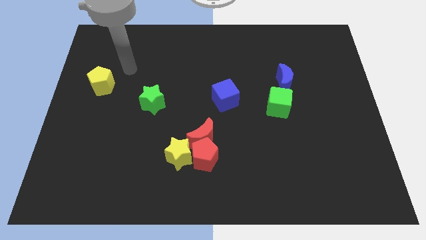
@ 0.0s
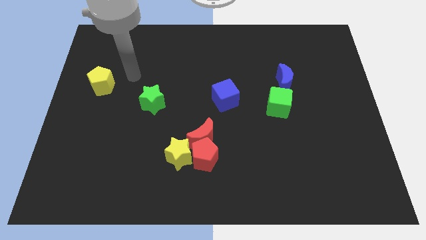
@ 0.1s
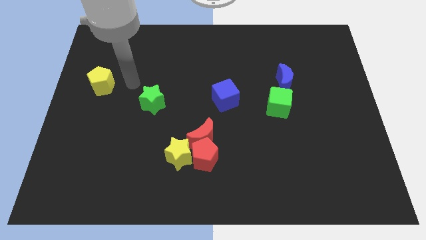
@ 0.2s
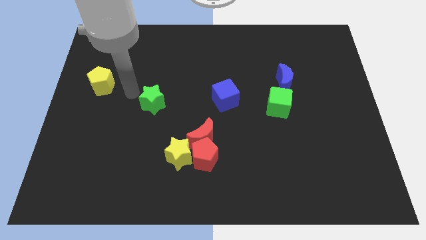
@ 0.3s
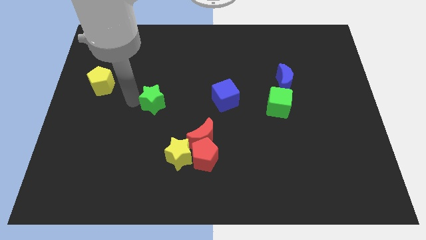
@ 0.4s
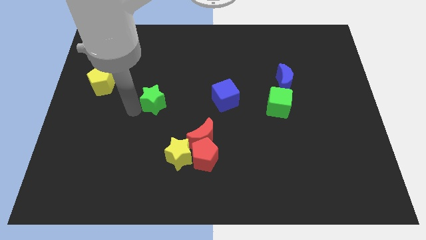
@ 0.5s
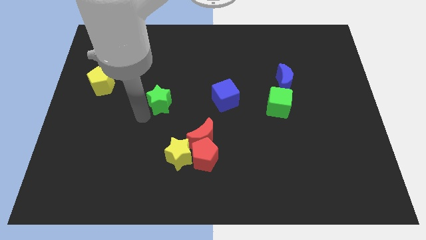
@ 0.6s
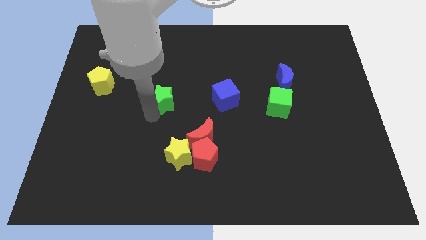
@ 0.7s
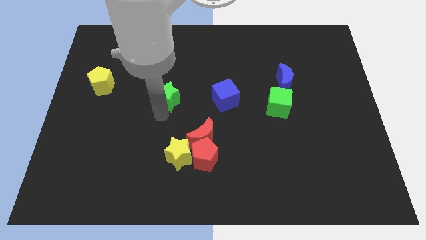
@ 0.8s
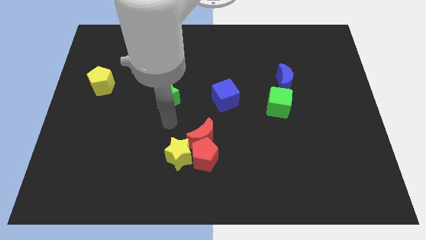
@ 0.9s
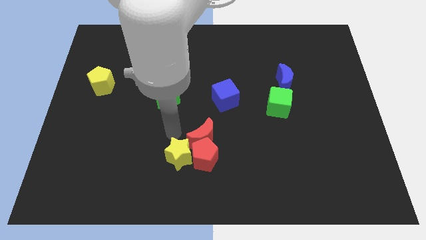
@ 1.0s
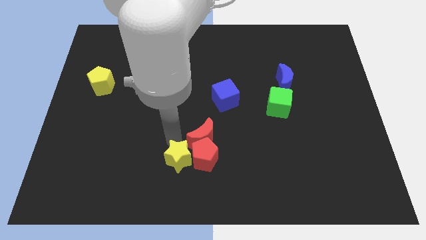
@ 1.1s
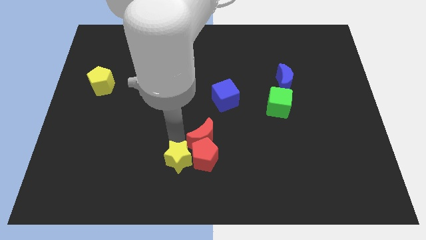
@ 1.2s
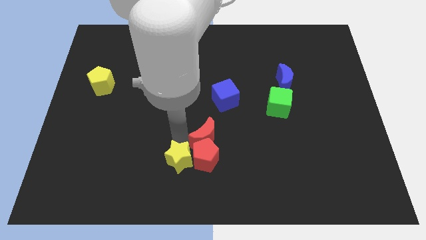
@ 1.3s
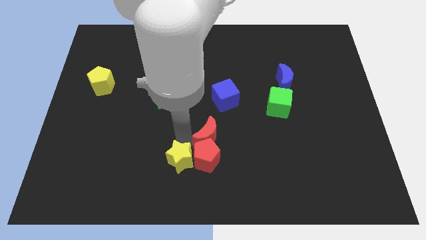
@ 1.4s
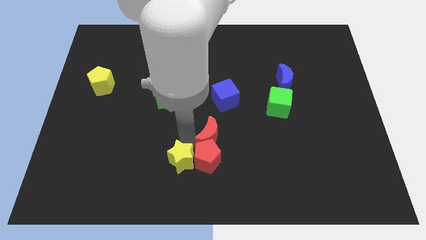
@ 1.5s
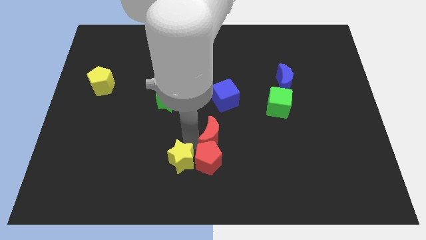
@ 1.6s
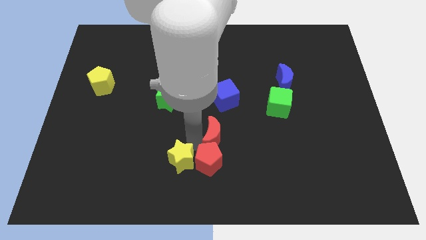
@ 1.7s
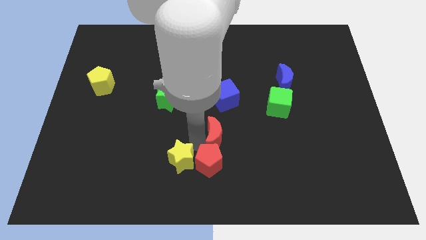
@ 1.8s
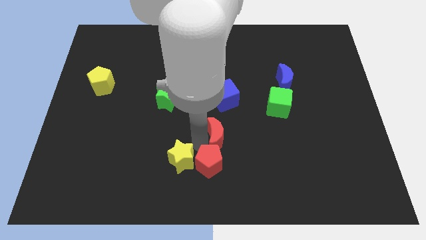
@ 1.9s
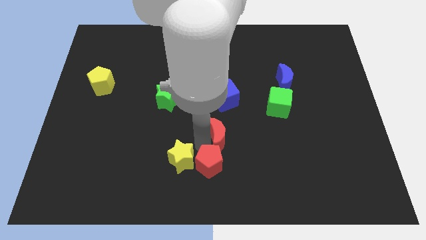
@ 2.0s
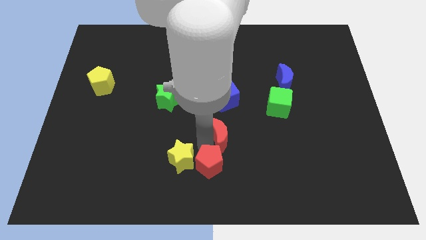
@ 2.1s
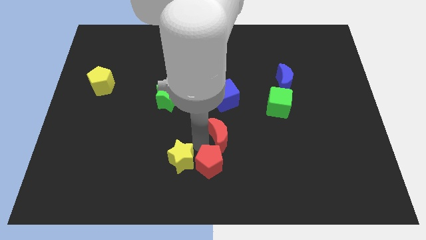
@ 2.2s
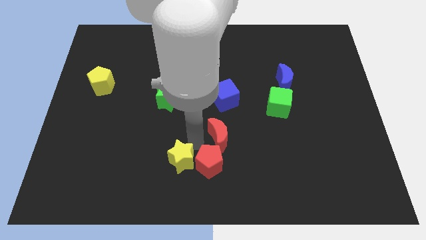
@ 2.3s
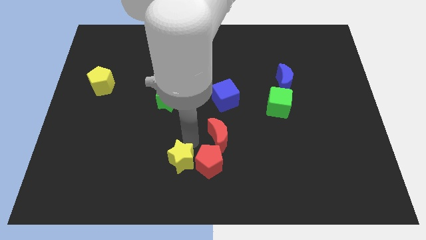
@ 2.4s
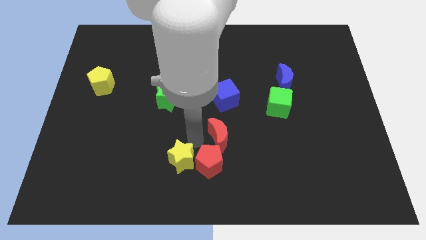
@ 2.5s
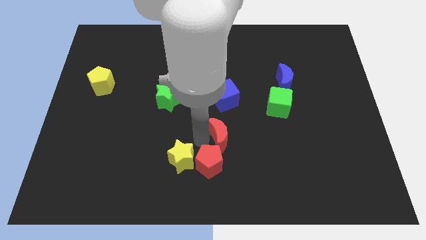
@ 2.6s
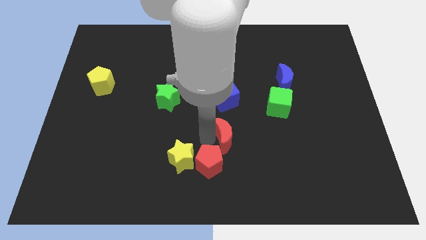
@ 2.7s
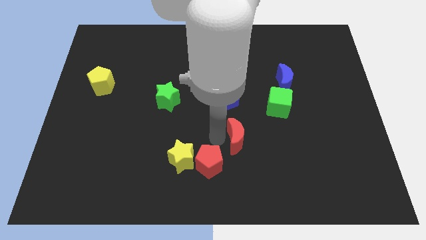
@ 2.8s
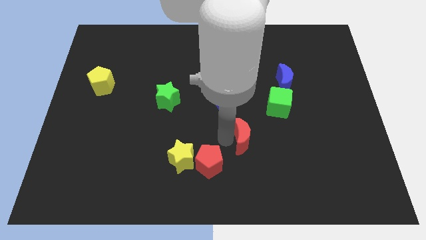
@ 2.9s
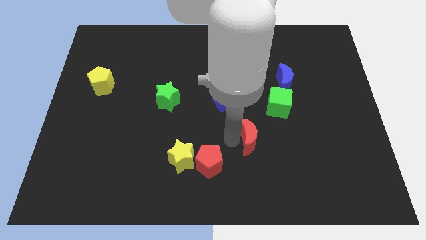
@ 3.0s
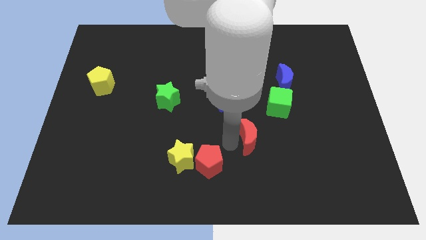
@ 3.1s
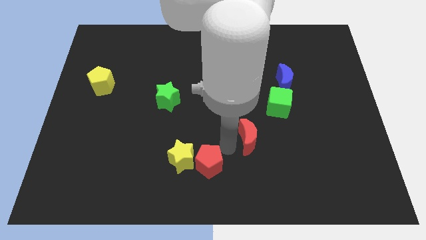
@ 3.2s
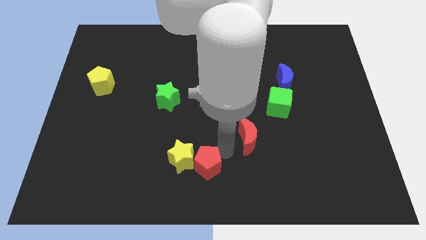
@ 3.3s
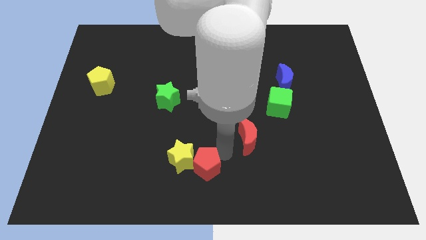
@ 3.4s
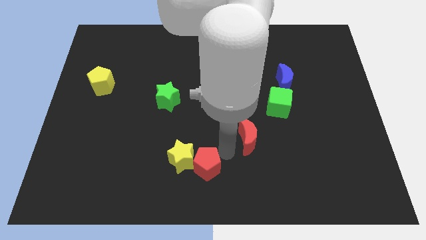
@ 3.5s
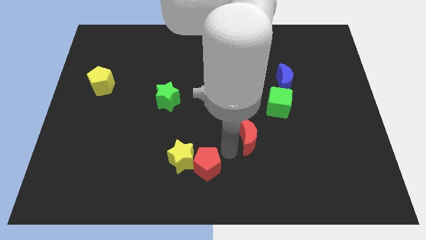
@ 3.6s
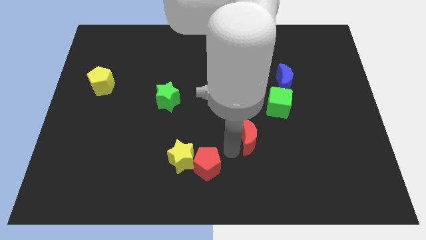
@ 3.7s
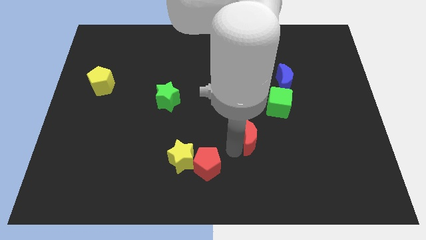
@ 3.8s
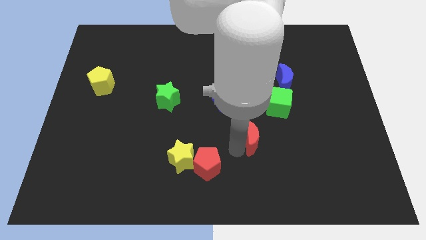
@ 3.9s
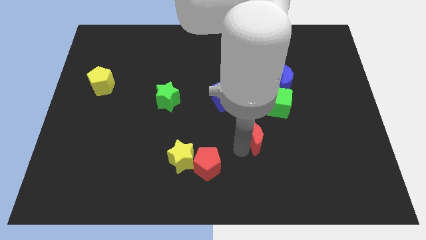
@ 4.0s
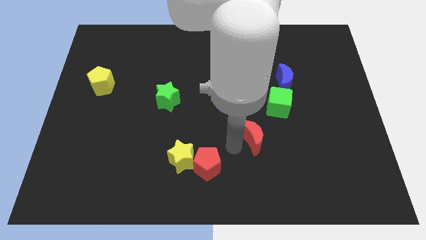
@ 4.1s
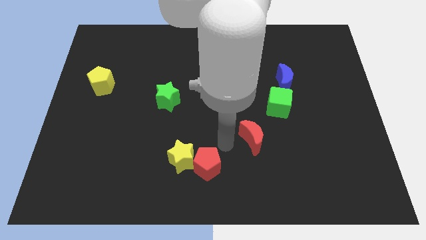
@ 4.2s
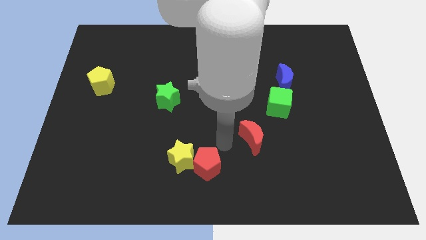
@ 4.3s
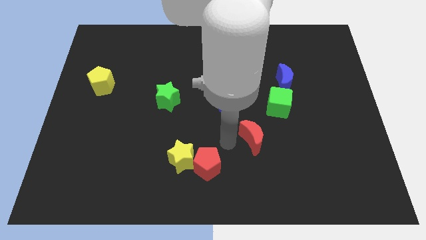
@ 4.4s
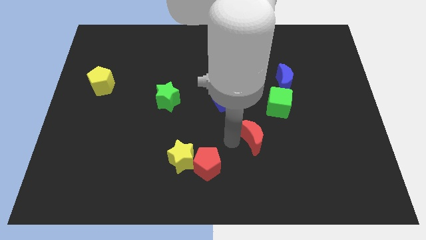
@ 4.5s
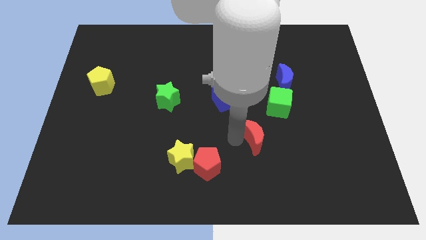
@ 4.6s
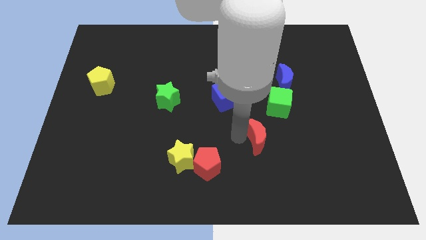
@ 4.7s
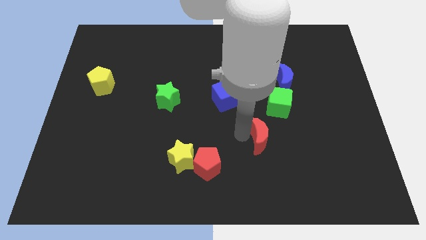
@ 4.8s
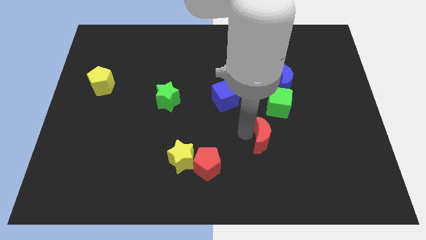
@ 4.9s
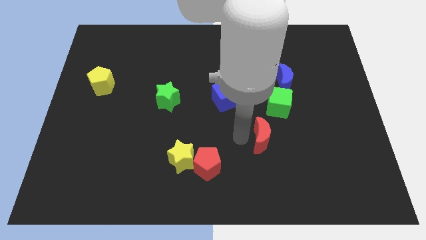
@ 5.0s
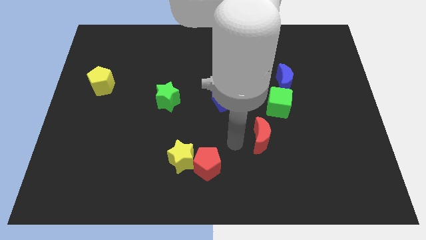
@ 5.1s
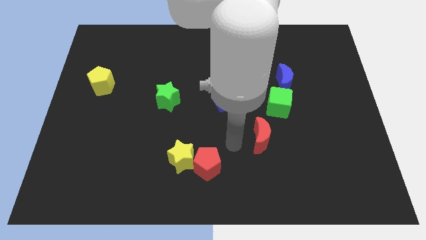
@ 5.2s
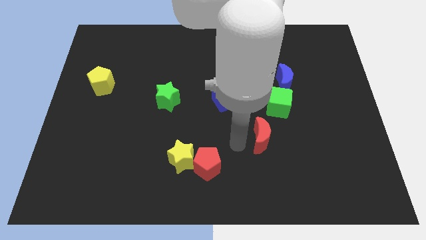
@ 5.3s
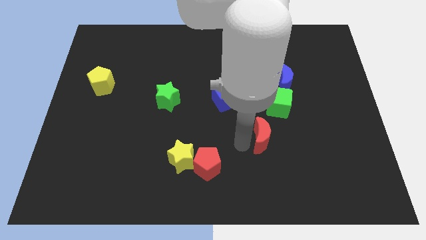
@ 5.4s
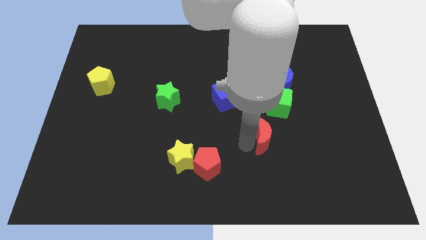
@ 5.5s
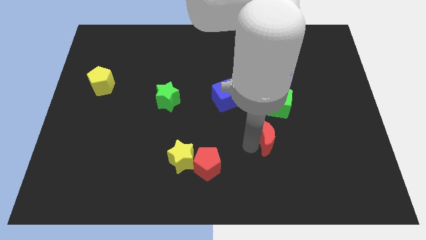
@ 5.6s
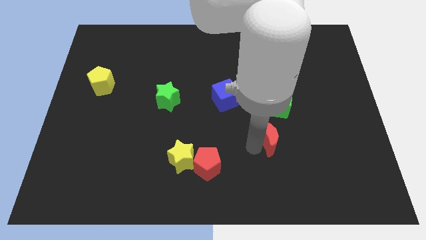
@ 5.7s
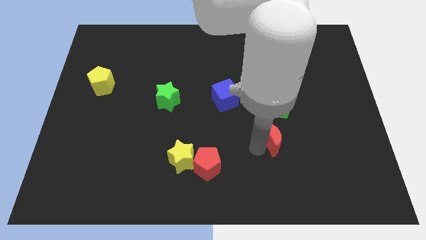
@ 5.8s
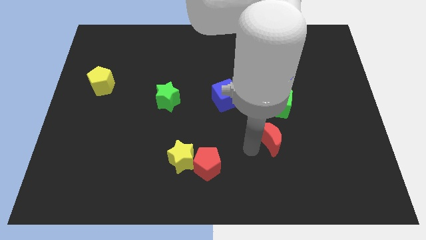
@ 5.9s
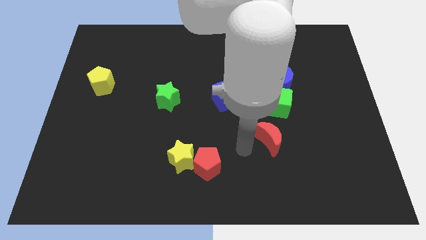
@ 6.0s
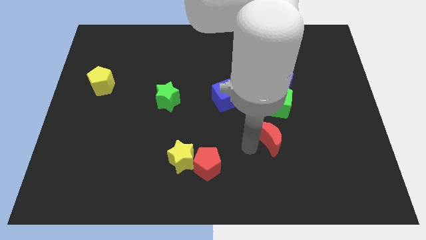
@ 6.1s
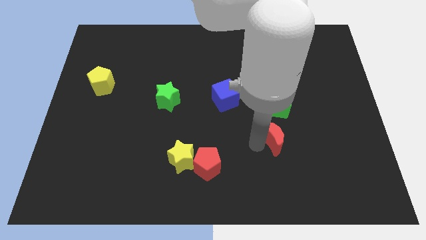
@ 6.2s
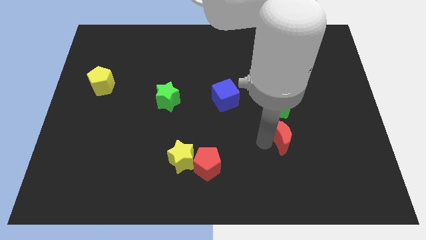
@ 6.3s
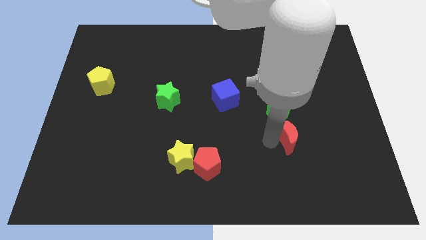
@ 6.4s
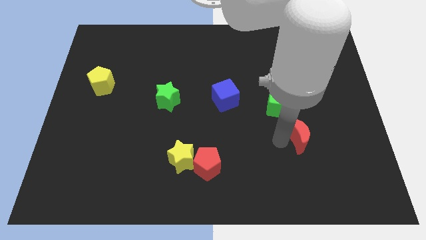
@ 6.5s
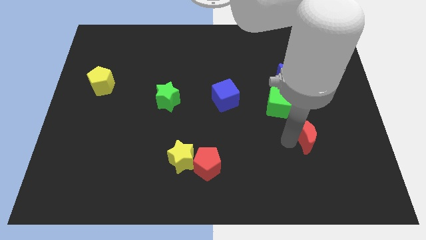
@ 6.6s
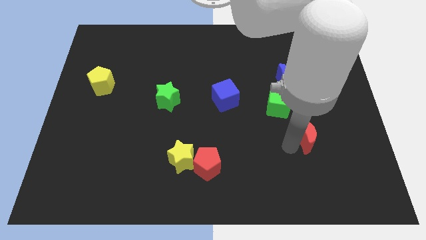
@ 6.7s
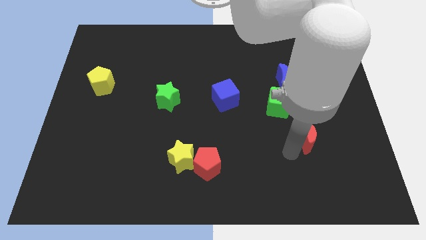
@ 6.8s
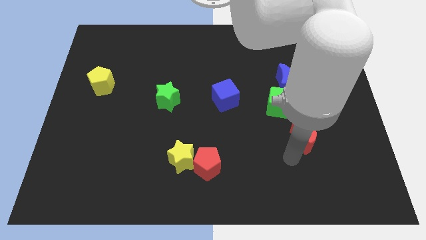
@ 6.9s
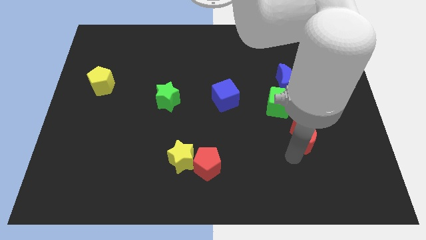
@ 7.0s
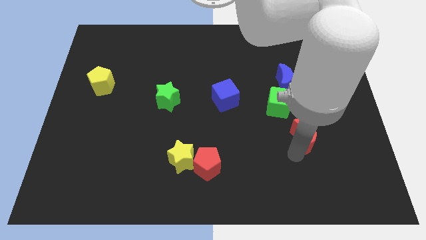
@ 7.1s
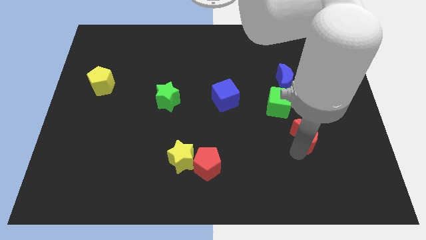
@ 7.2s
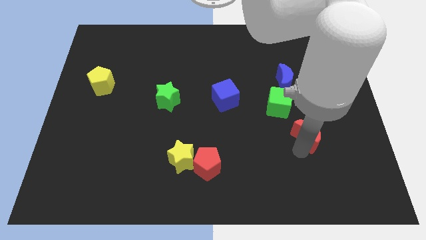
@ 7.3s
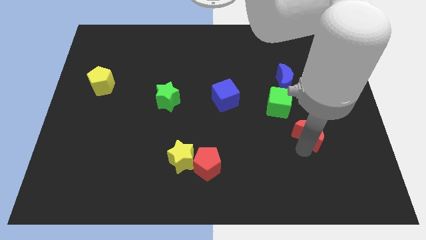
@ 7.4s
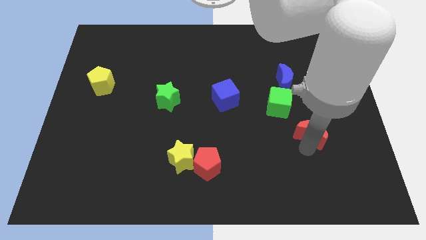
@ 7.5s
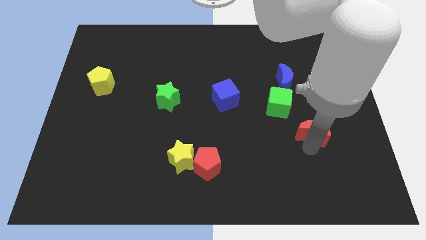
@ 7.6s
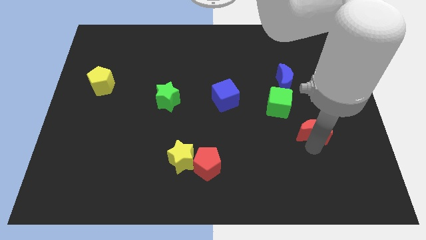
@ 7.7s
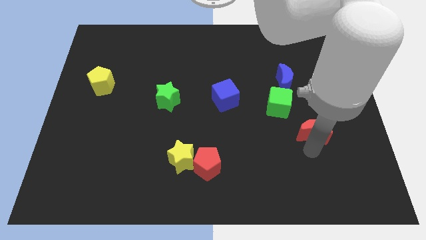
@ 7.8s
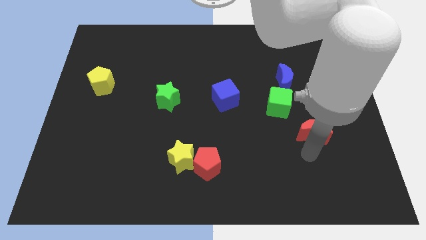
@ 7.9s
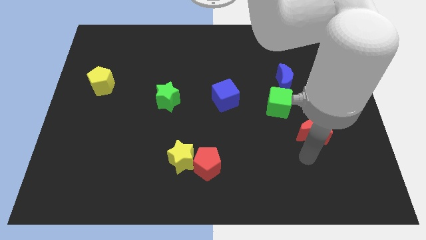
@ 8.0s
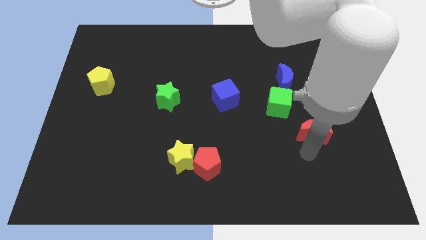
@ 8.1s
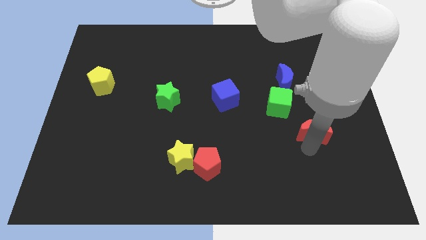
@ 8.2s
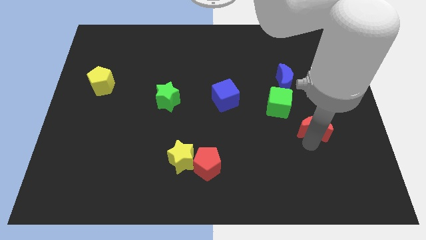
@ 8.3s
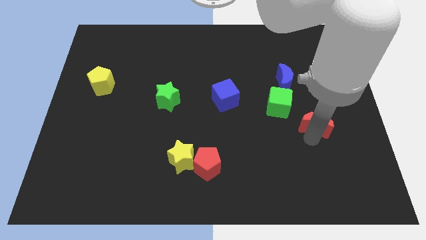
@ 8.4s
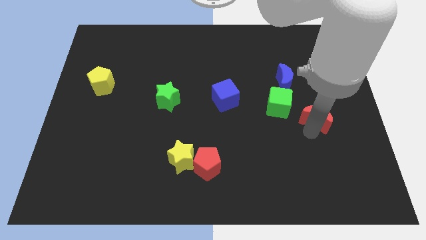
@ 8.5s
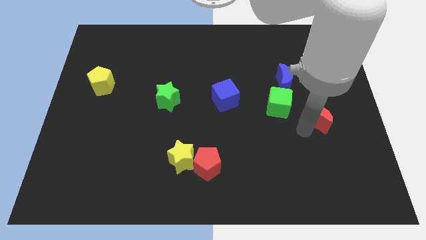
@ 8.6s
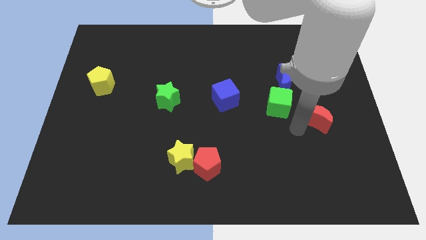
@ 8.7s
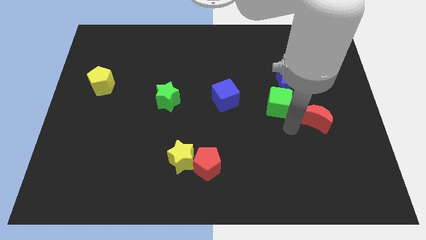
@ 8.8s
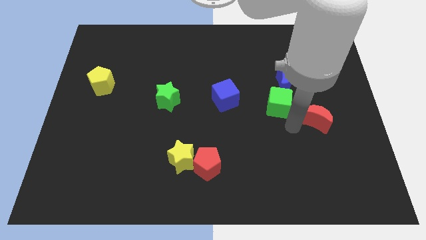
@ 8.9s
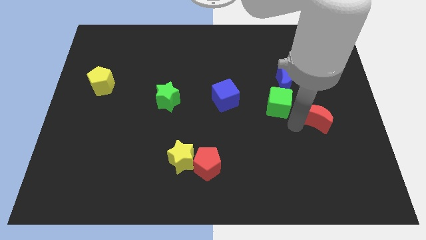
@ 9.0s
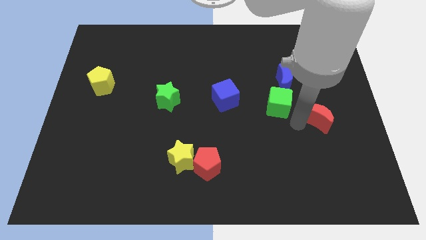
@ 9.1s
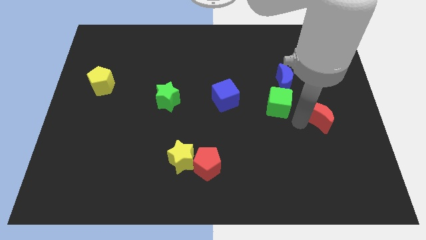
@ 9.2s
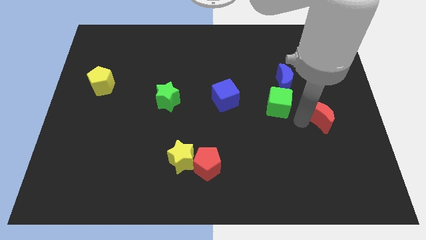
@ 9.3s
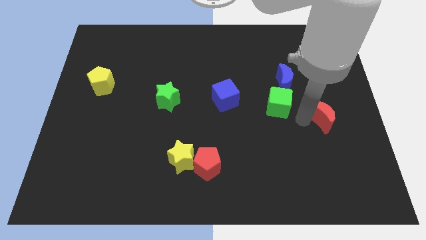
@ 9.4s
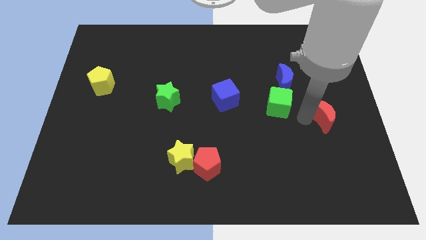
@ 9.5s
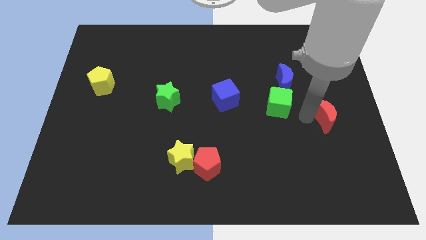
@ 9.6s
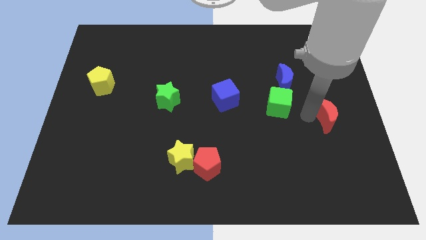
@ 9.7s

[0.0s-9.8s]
push the red moon to the center right
